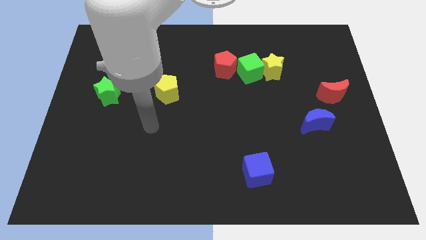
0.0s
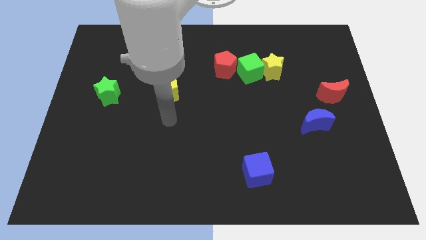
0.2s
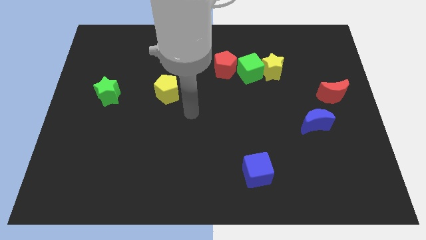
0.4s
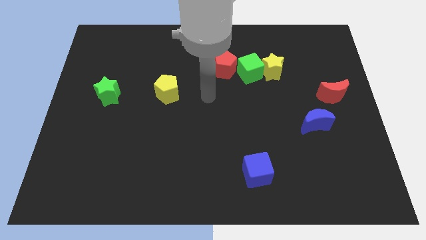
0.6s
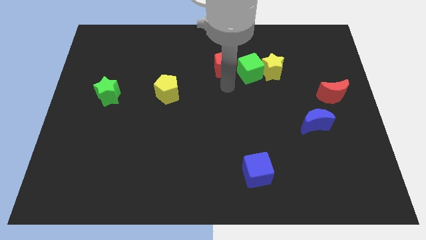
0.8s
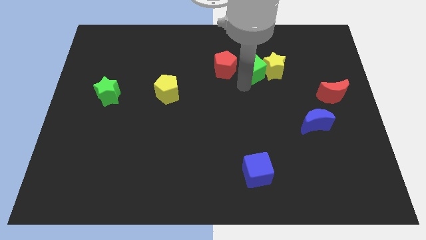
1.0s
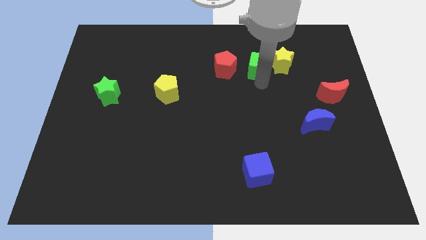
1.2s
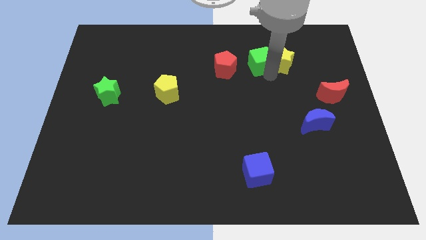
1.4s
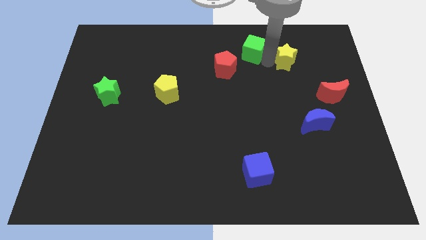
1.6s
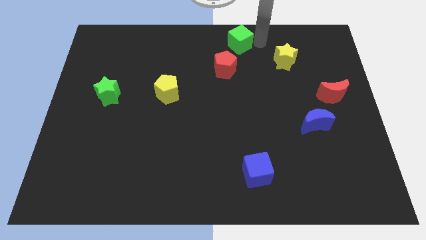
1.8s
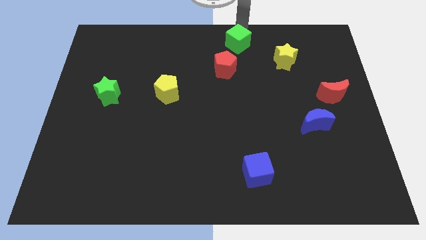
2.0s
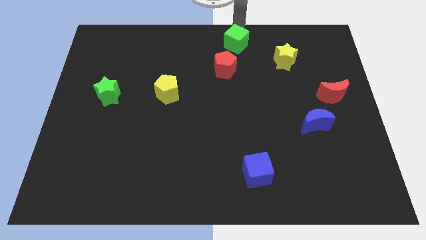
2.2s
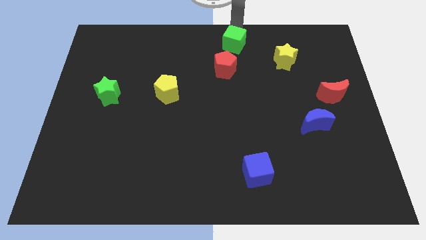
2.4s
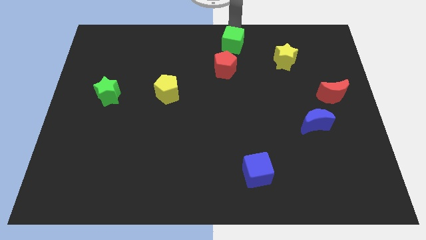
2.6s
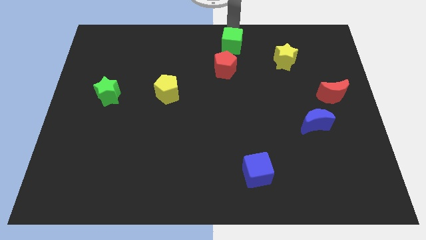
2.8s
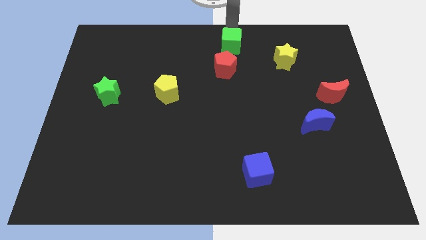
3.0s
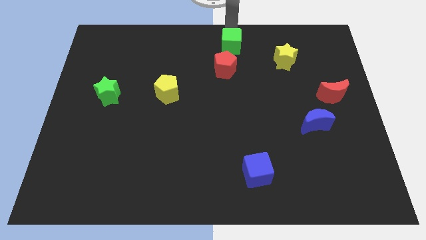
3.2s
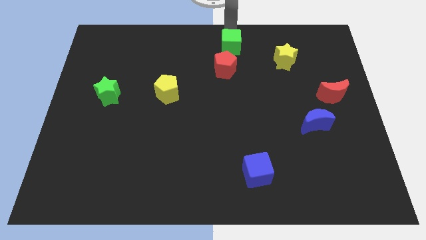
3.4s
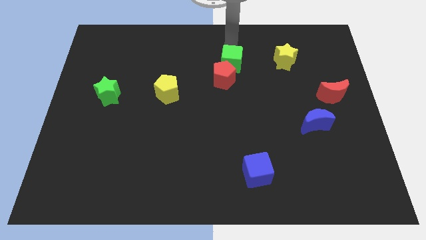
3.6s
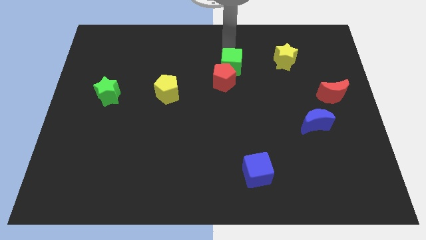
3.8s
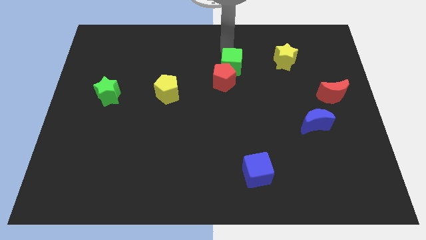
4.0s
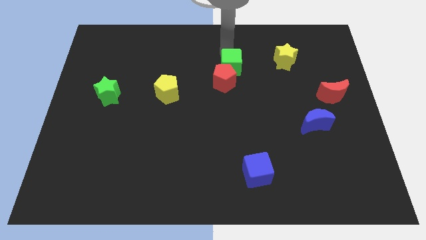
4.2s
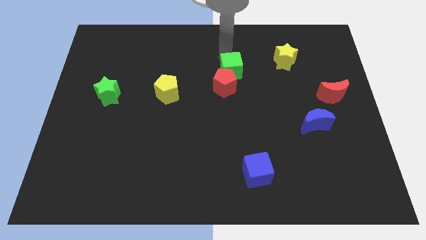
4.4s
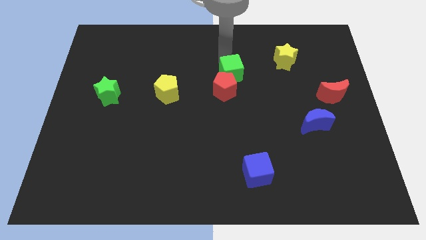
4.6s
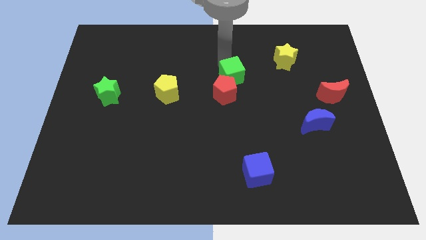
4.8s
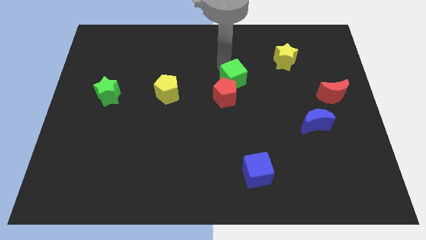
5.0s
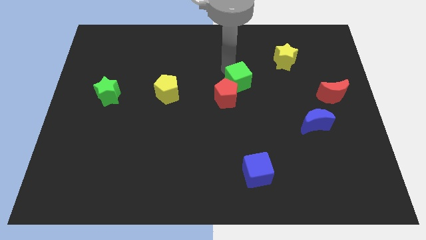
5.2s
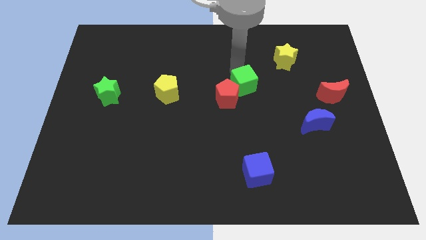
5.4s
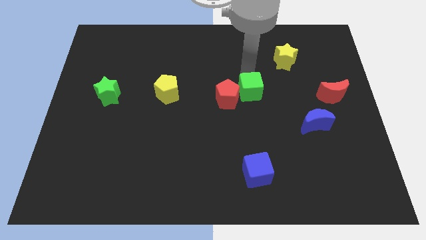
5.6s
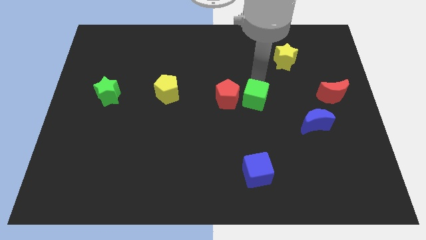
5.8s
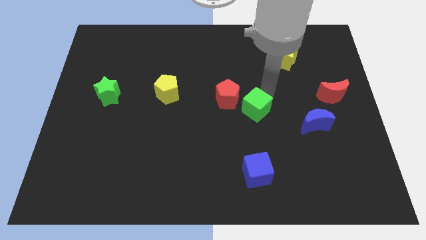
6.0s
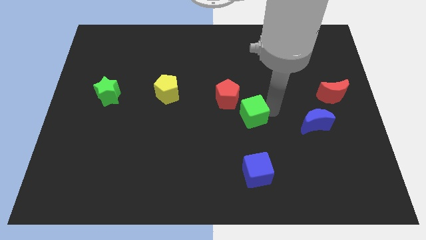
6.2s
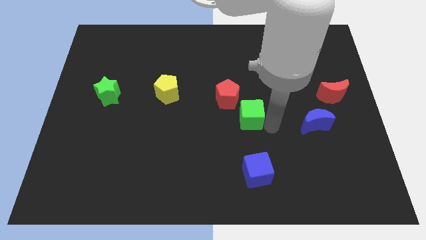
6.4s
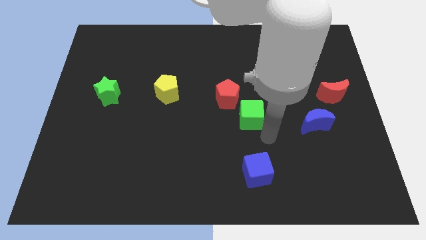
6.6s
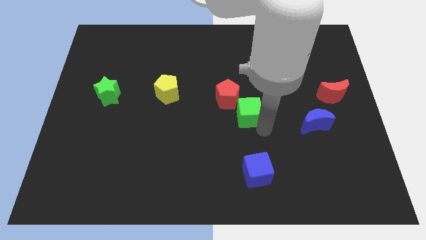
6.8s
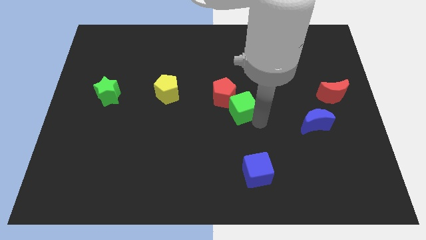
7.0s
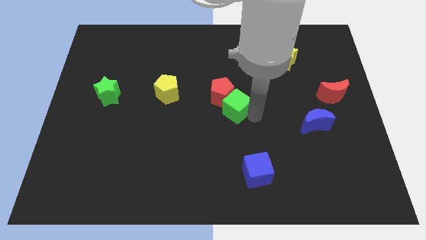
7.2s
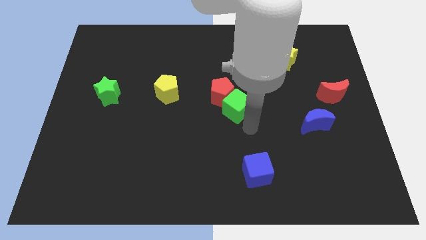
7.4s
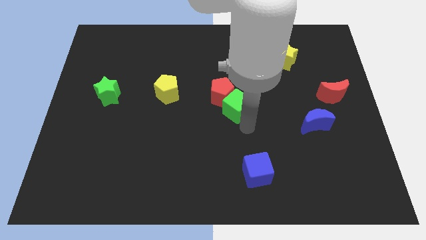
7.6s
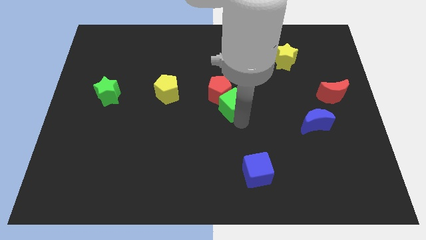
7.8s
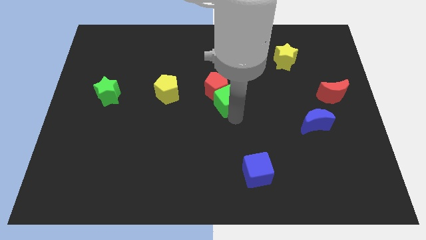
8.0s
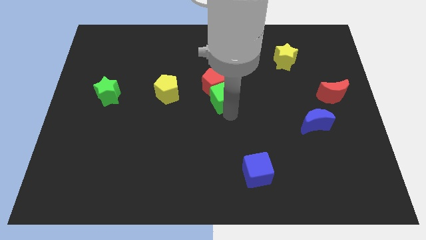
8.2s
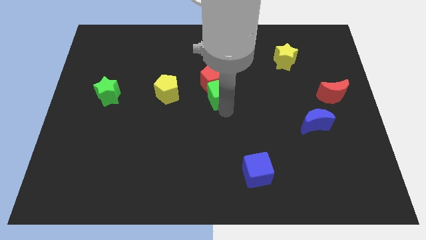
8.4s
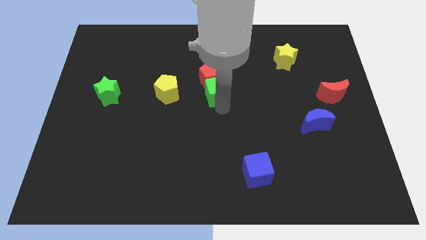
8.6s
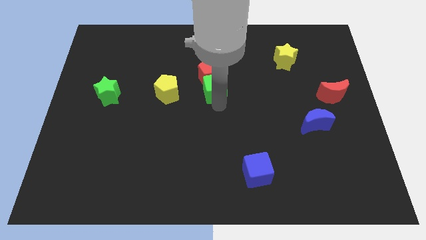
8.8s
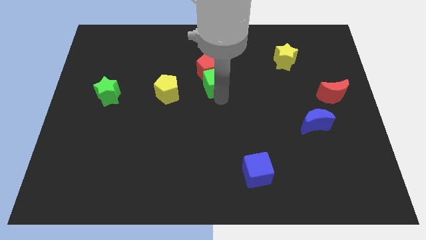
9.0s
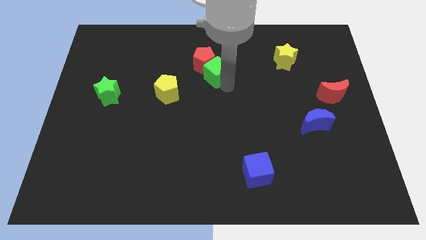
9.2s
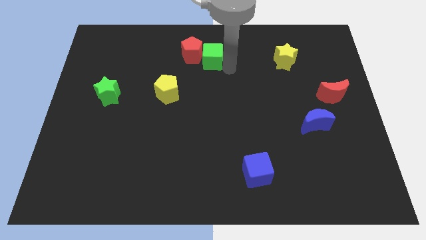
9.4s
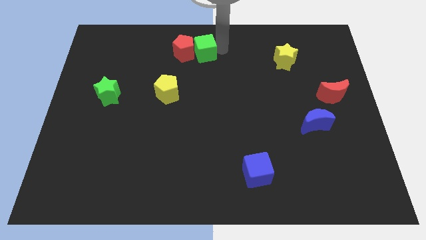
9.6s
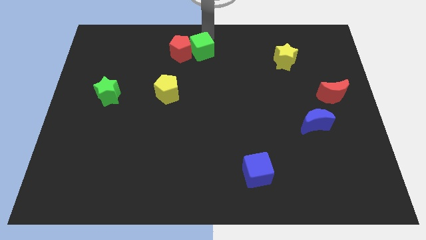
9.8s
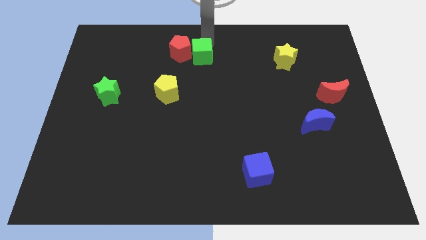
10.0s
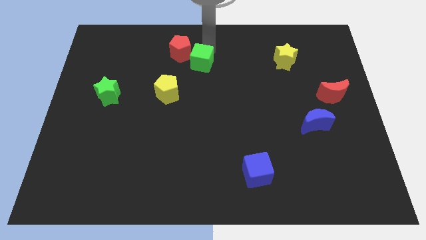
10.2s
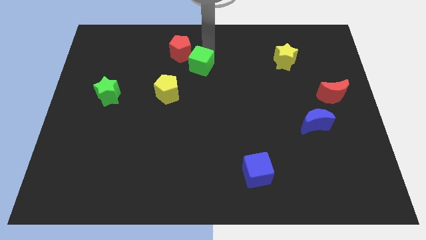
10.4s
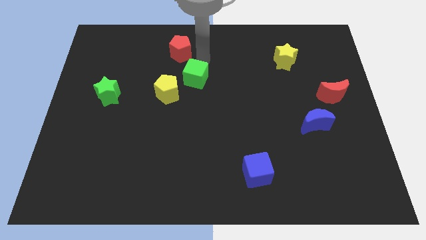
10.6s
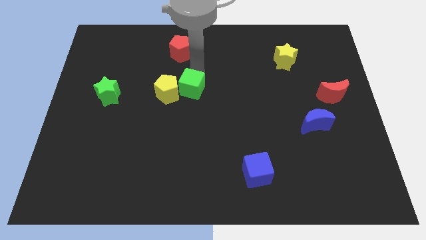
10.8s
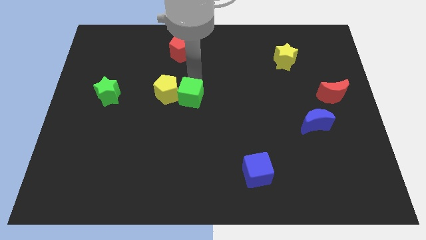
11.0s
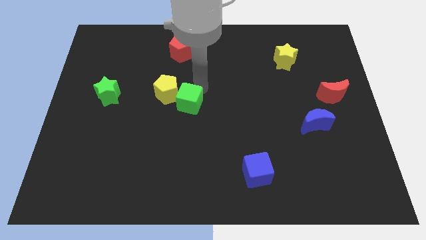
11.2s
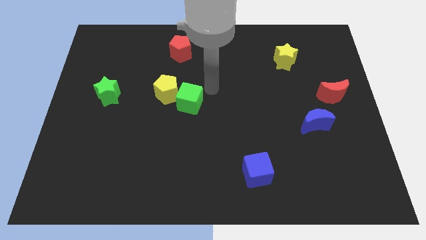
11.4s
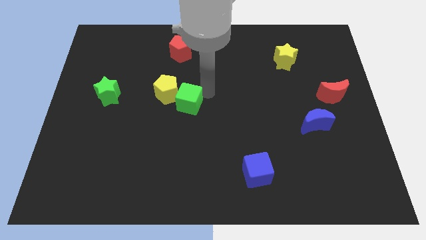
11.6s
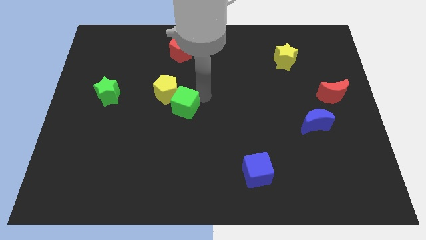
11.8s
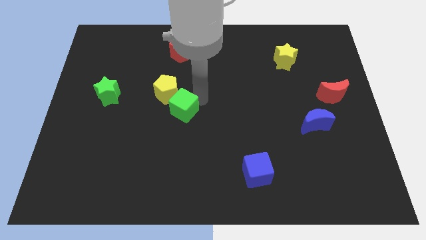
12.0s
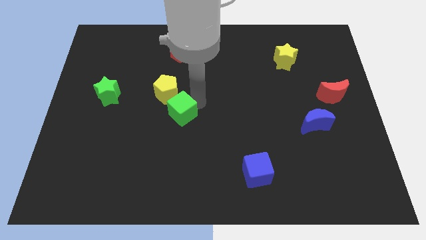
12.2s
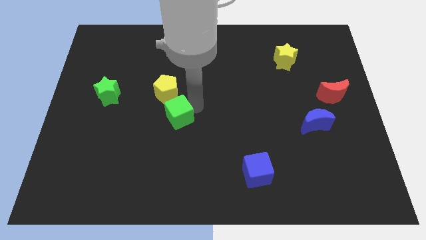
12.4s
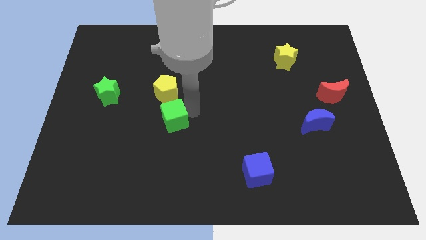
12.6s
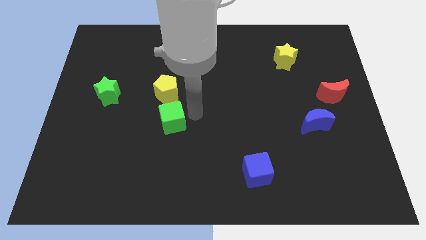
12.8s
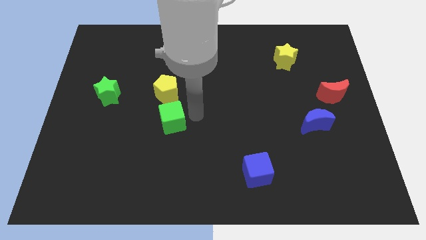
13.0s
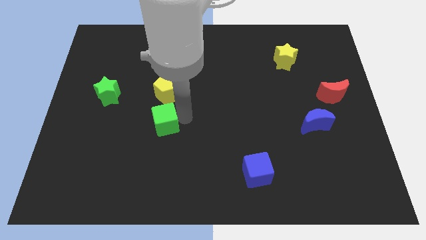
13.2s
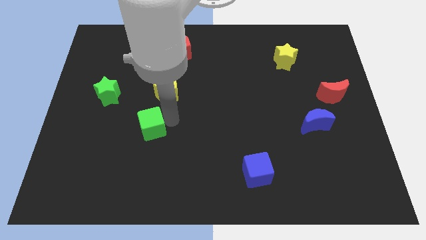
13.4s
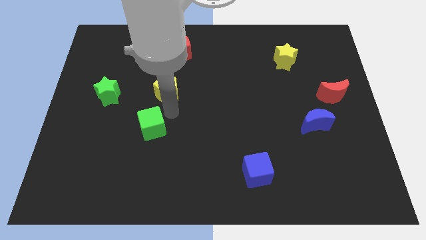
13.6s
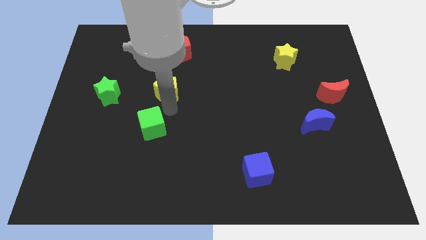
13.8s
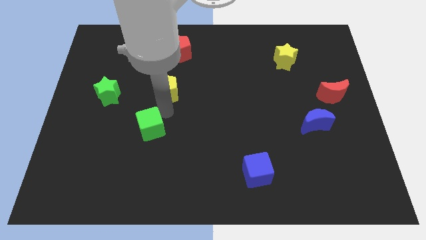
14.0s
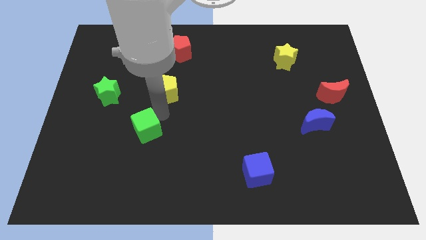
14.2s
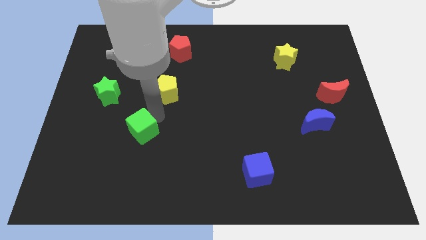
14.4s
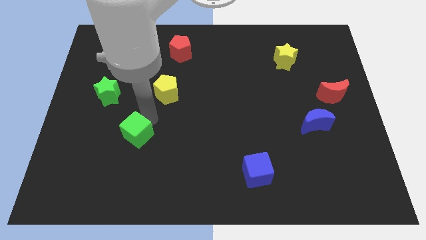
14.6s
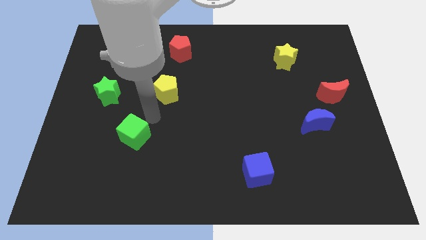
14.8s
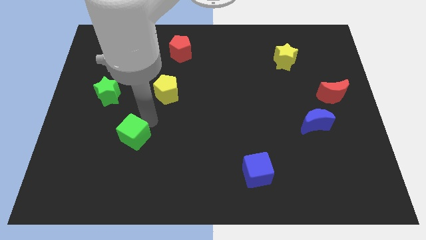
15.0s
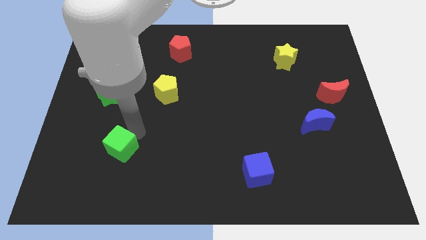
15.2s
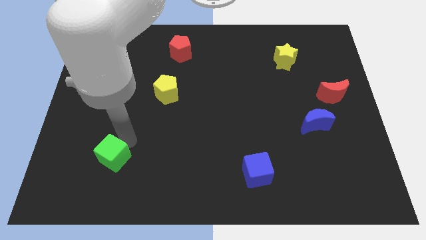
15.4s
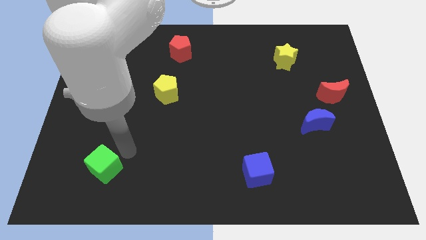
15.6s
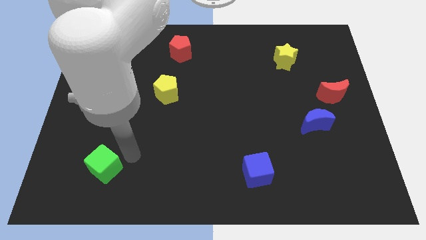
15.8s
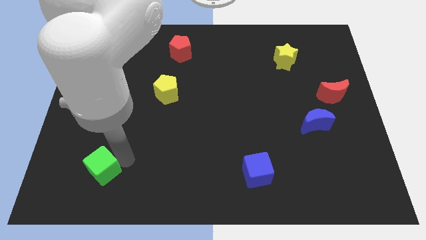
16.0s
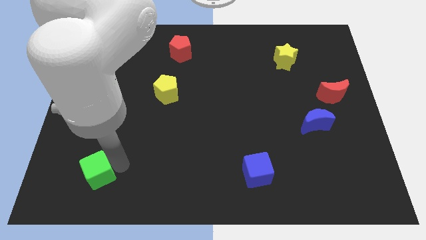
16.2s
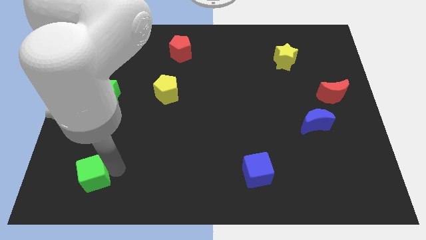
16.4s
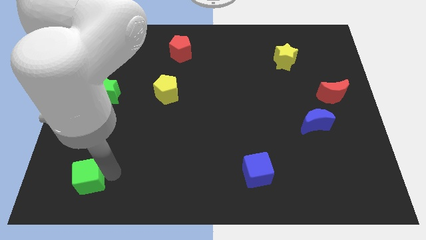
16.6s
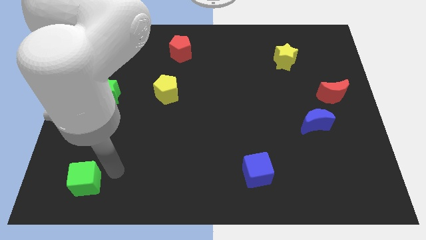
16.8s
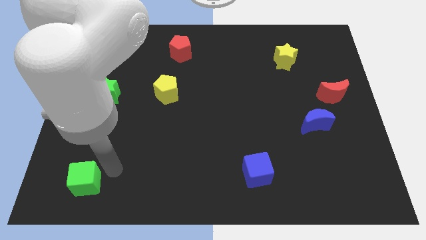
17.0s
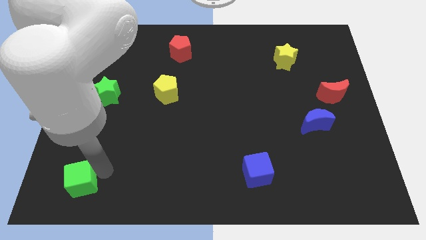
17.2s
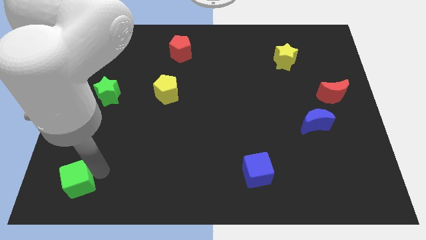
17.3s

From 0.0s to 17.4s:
slide the green cube to the bottom left
